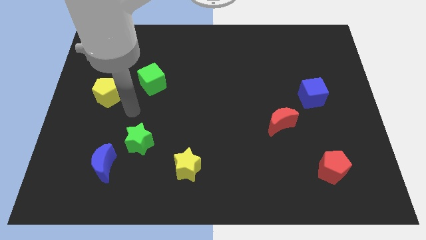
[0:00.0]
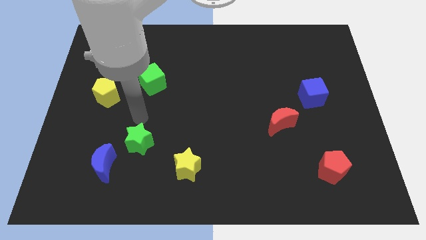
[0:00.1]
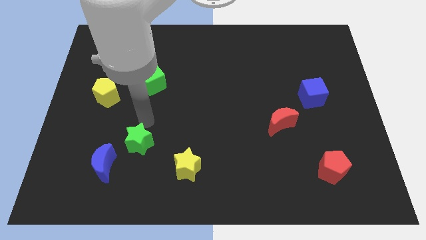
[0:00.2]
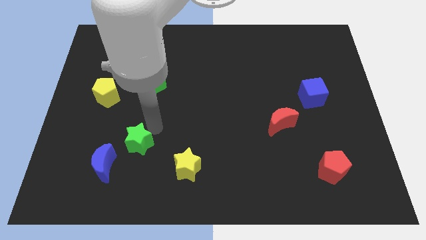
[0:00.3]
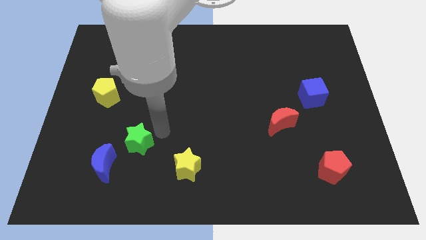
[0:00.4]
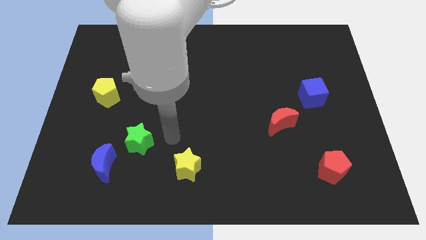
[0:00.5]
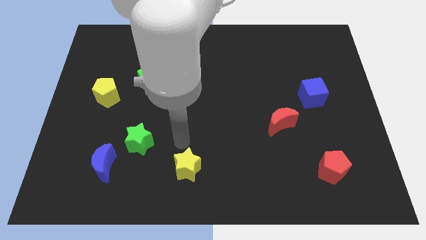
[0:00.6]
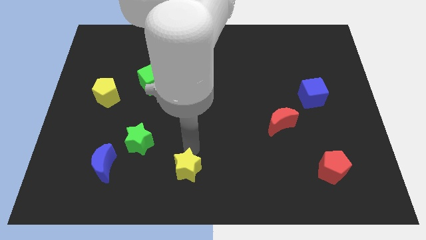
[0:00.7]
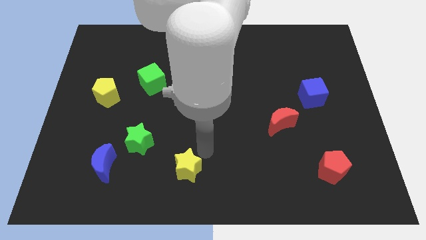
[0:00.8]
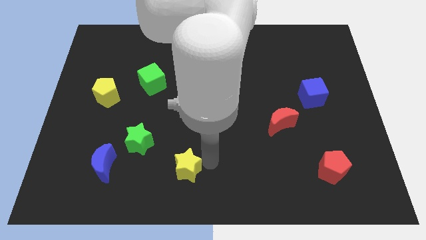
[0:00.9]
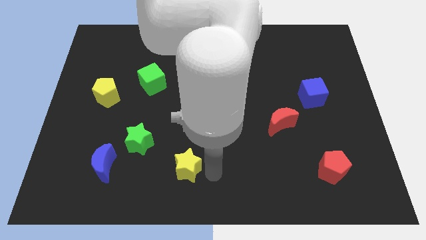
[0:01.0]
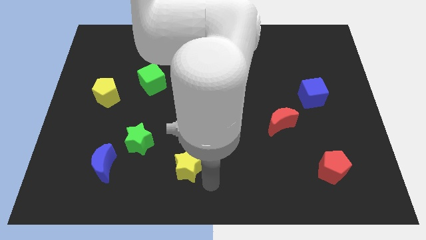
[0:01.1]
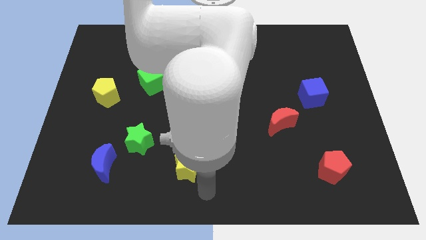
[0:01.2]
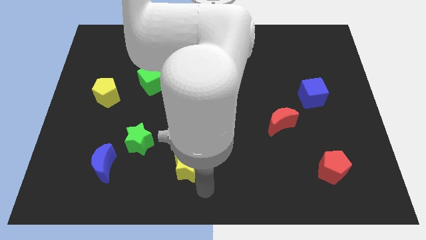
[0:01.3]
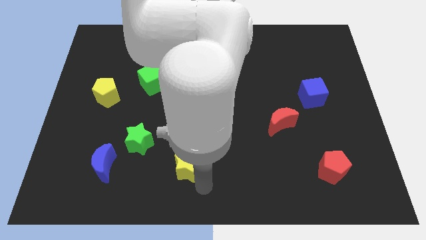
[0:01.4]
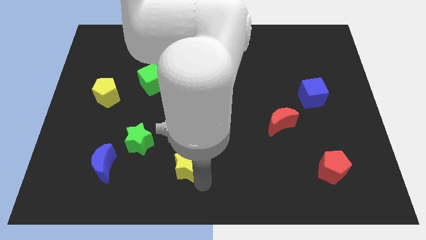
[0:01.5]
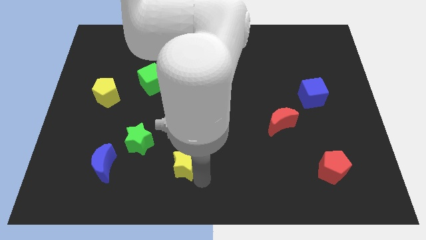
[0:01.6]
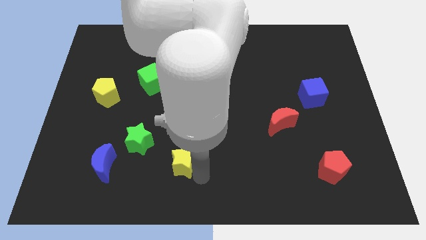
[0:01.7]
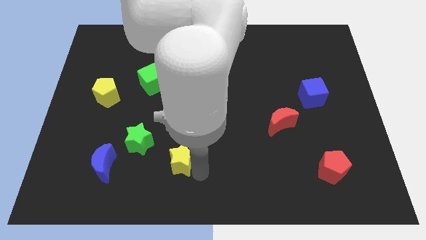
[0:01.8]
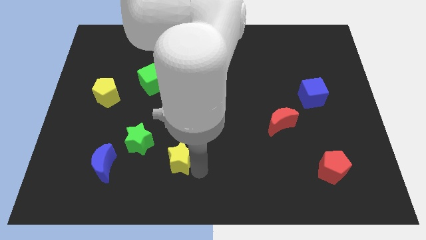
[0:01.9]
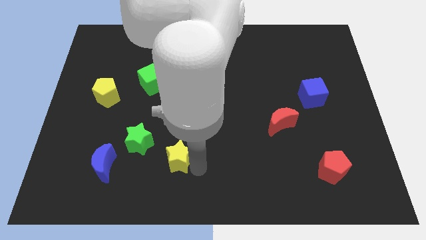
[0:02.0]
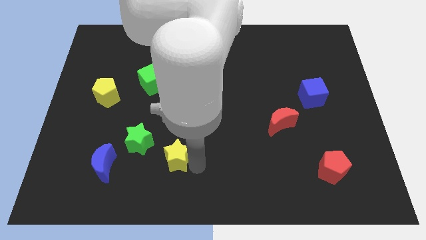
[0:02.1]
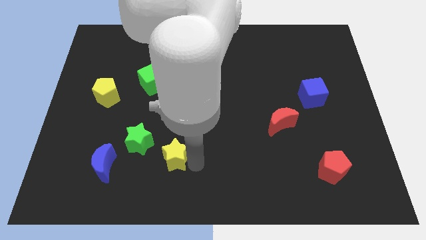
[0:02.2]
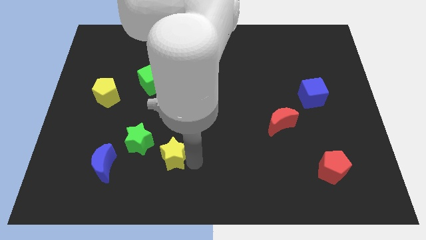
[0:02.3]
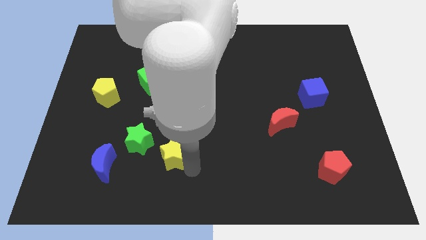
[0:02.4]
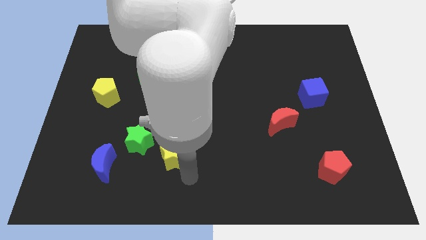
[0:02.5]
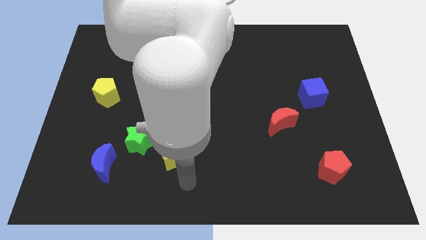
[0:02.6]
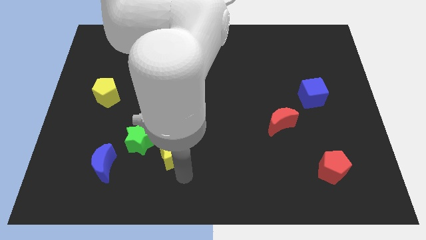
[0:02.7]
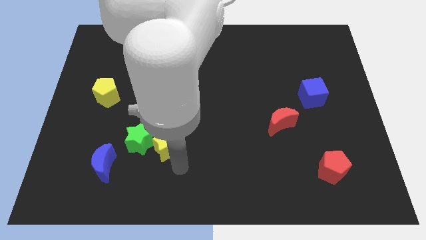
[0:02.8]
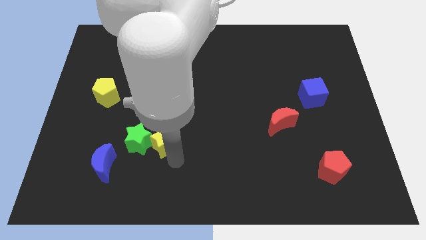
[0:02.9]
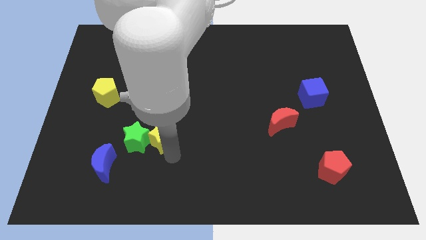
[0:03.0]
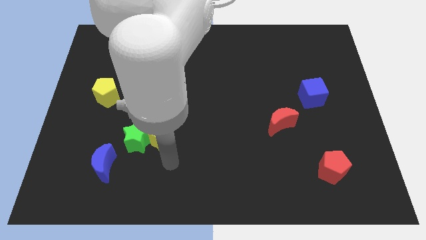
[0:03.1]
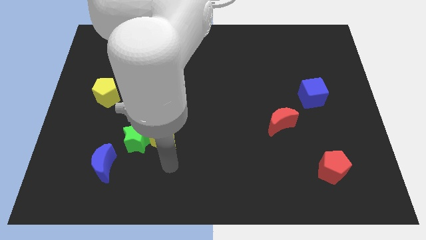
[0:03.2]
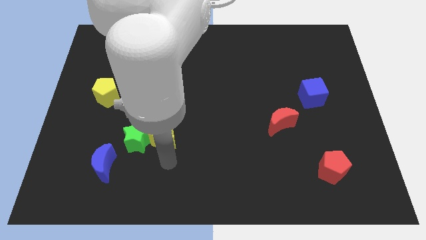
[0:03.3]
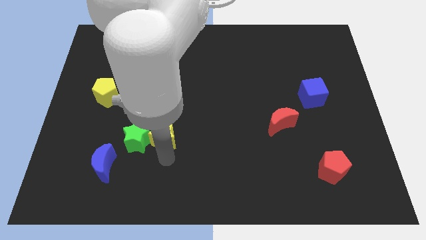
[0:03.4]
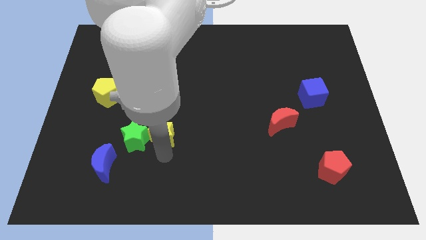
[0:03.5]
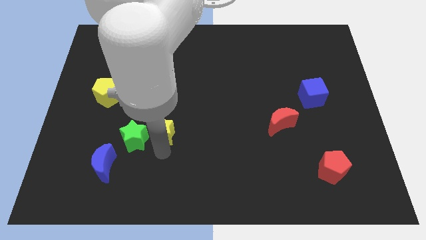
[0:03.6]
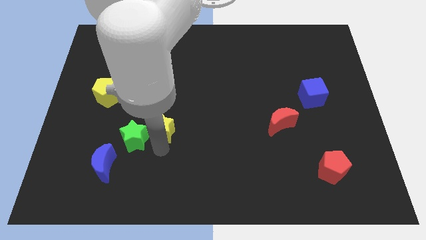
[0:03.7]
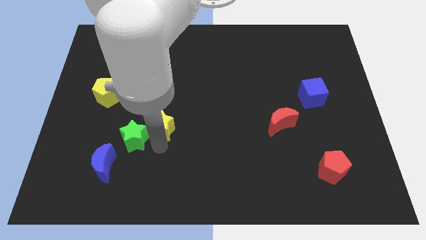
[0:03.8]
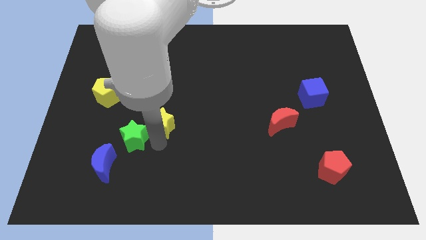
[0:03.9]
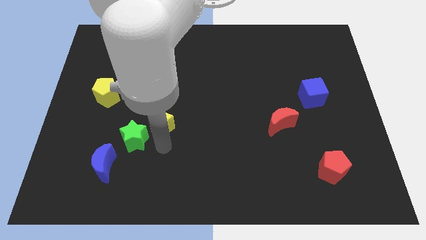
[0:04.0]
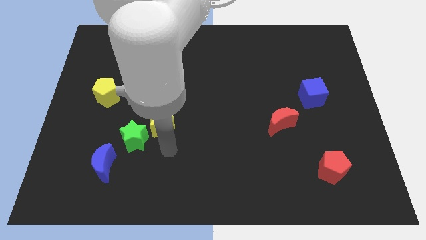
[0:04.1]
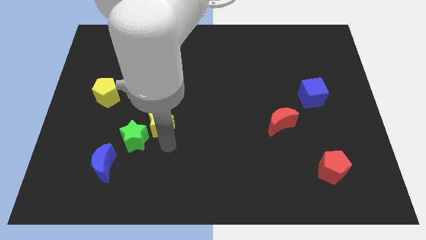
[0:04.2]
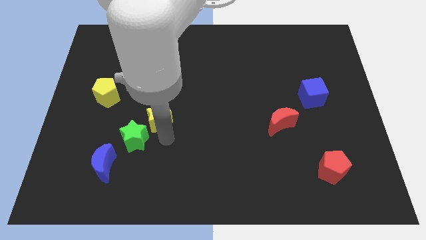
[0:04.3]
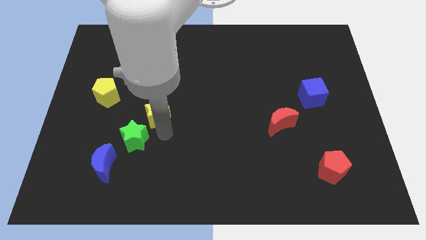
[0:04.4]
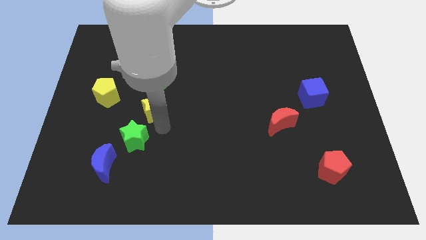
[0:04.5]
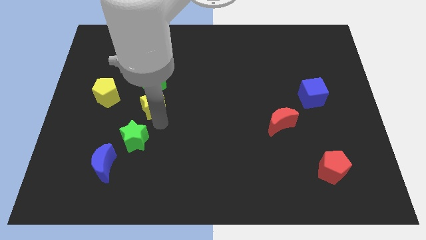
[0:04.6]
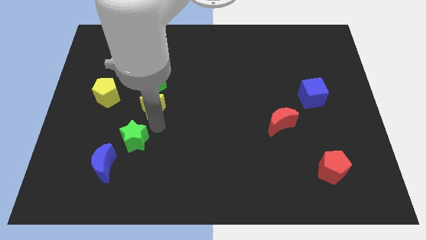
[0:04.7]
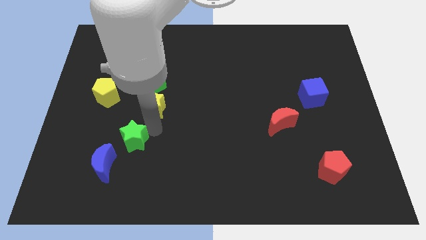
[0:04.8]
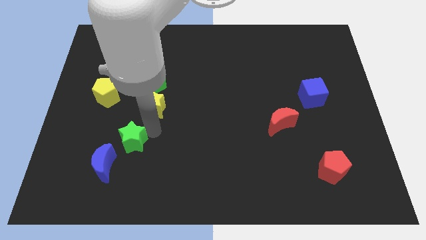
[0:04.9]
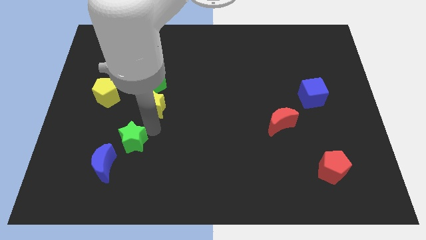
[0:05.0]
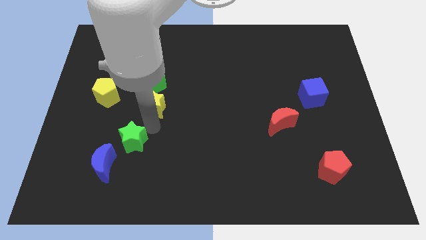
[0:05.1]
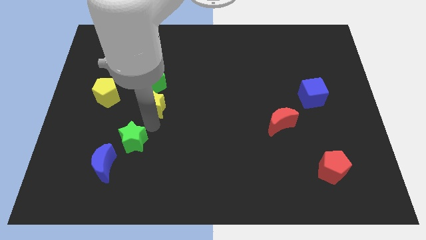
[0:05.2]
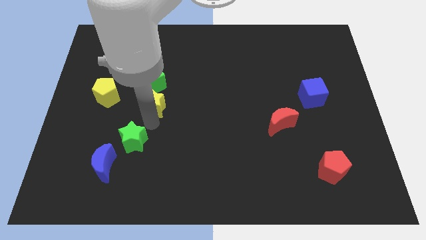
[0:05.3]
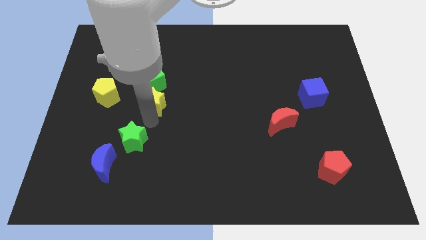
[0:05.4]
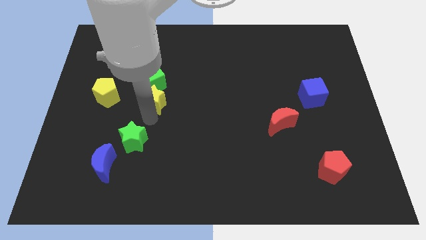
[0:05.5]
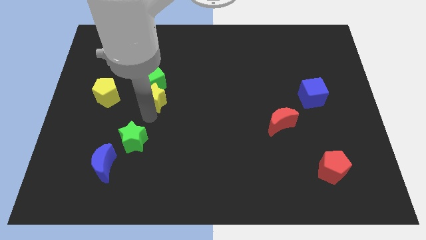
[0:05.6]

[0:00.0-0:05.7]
move the yellow star close to the green cube

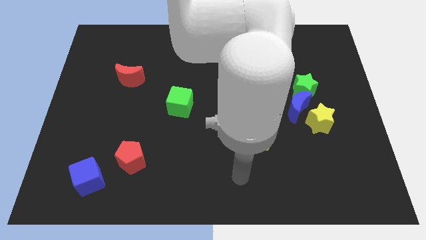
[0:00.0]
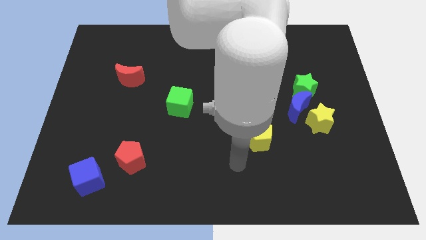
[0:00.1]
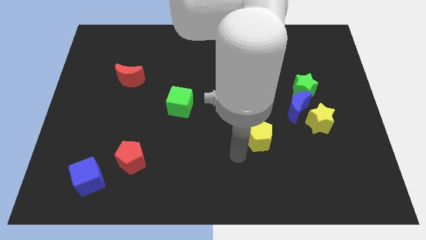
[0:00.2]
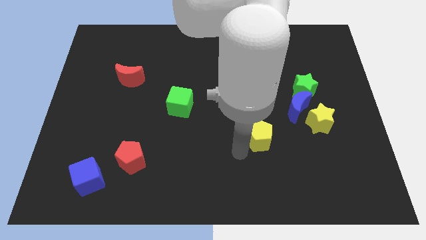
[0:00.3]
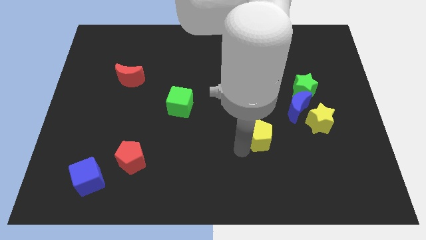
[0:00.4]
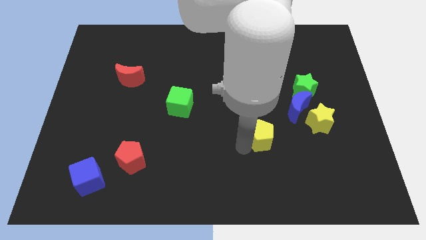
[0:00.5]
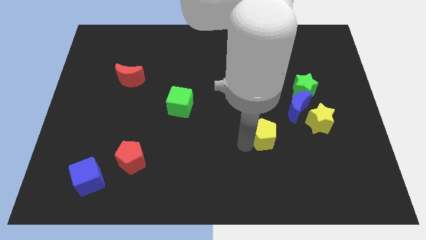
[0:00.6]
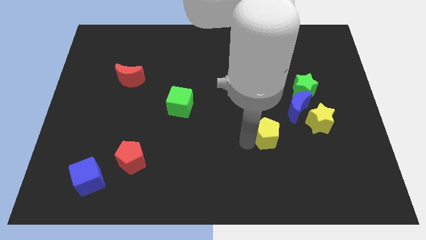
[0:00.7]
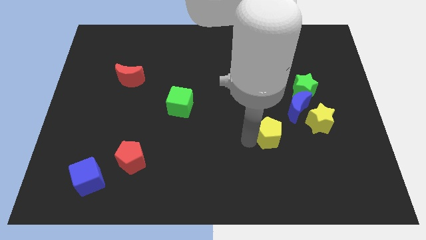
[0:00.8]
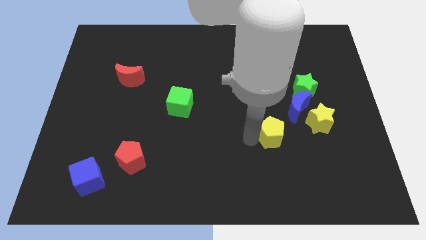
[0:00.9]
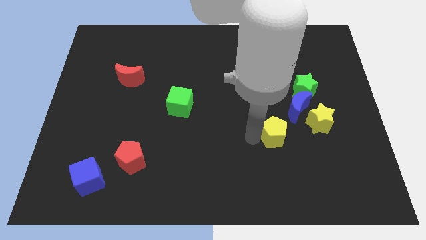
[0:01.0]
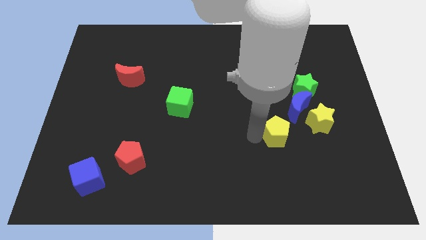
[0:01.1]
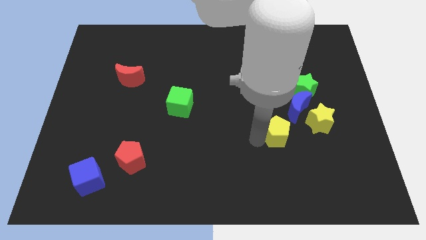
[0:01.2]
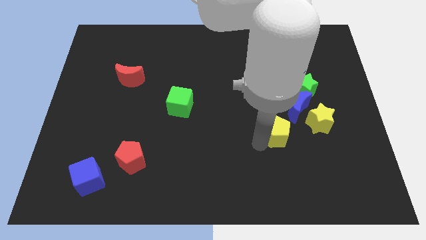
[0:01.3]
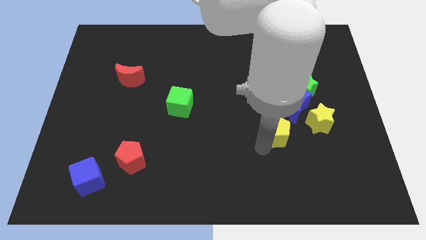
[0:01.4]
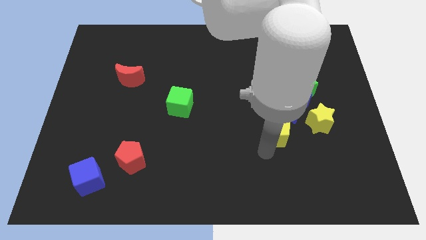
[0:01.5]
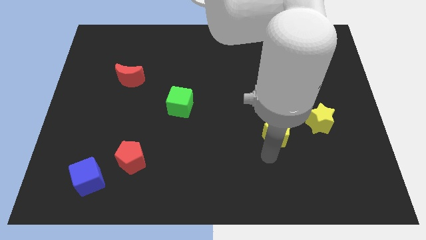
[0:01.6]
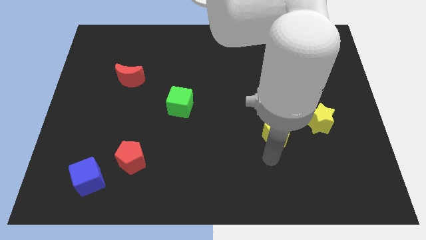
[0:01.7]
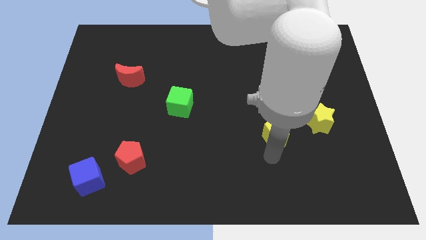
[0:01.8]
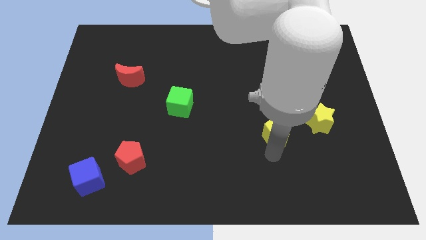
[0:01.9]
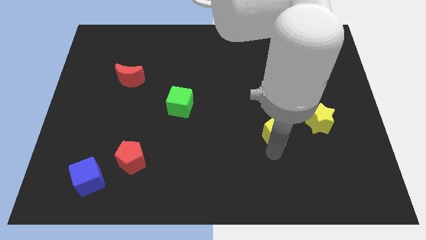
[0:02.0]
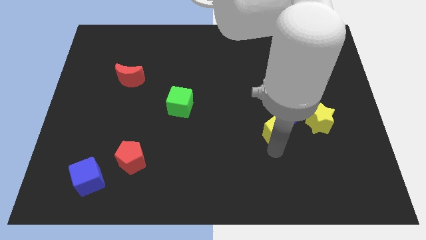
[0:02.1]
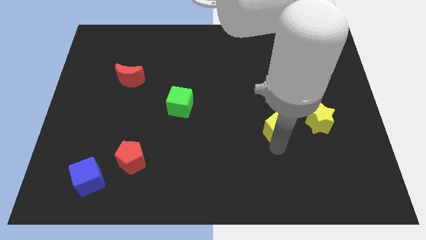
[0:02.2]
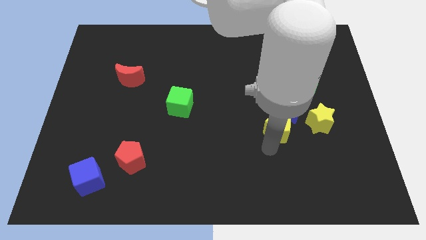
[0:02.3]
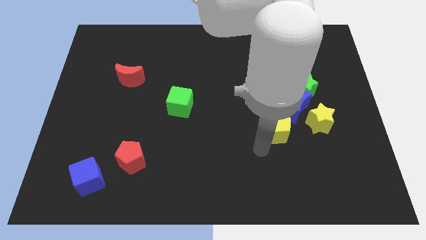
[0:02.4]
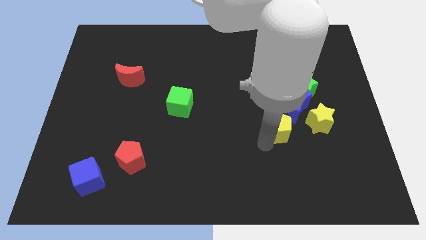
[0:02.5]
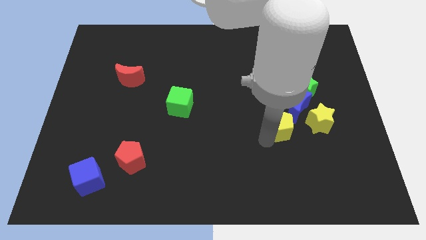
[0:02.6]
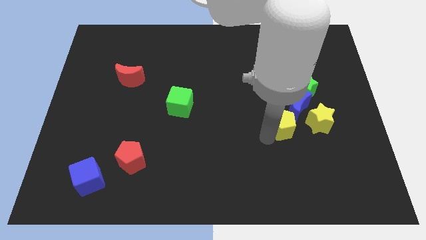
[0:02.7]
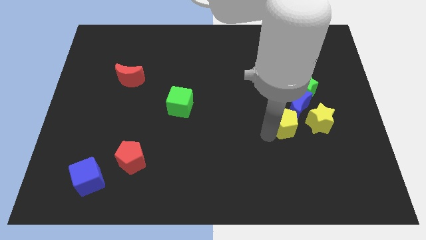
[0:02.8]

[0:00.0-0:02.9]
move the yellow pentagon to the blue moon
